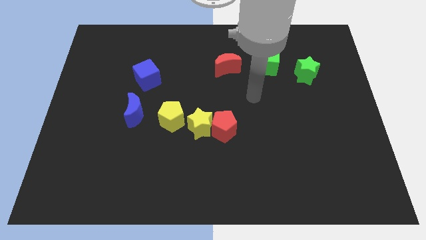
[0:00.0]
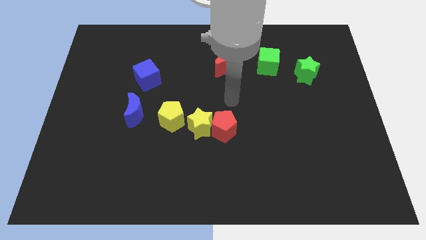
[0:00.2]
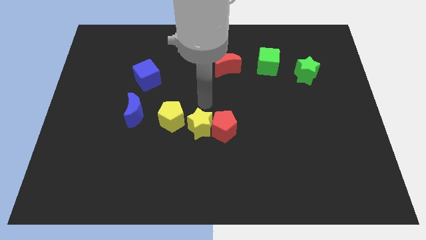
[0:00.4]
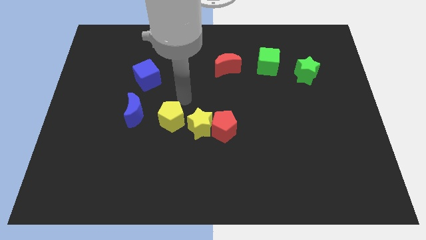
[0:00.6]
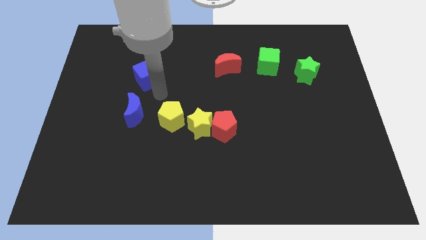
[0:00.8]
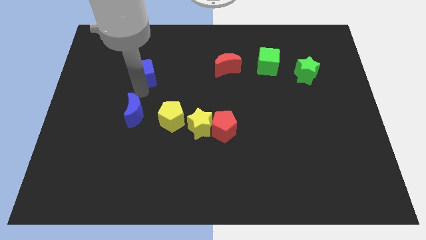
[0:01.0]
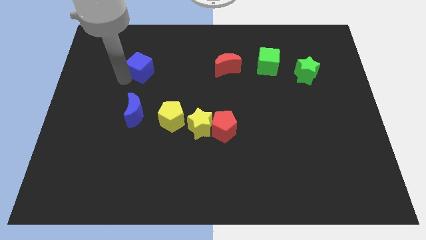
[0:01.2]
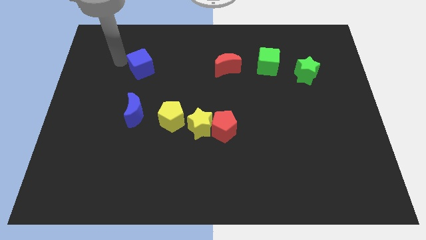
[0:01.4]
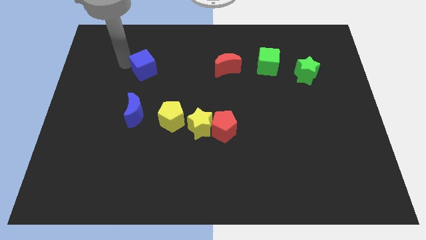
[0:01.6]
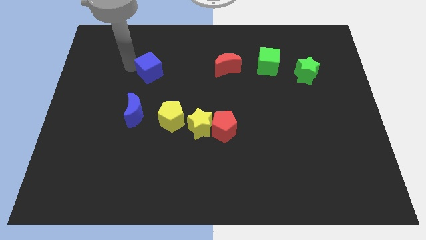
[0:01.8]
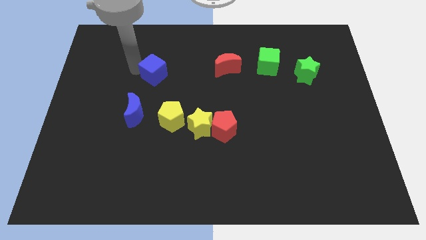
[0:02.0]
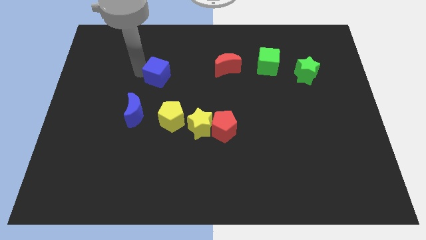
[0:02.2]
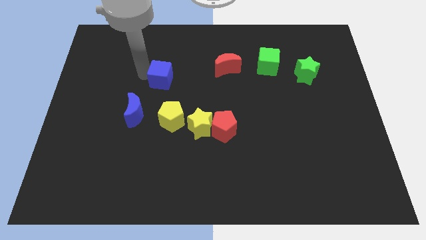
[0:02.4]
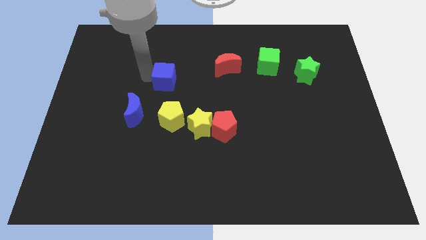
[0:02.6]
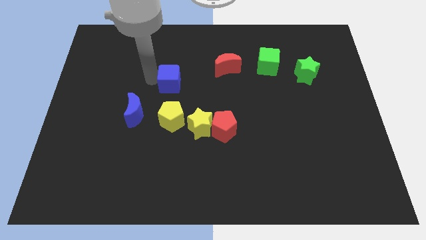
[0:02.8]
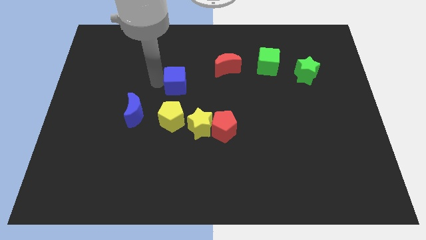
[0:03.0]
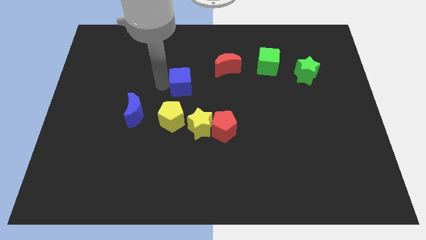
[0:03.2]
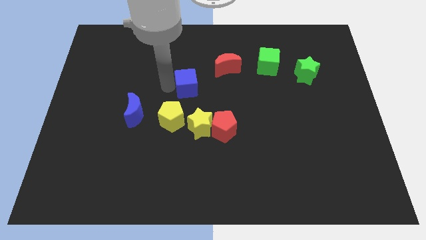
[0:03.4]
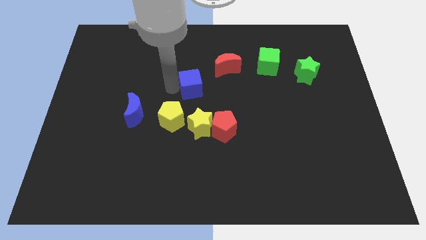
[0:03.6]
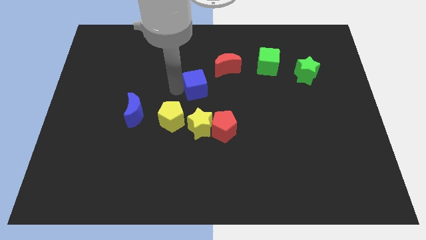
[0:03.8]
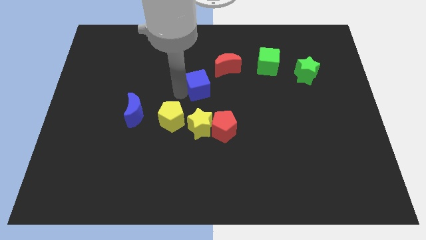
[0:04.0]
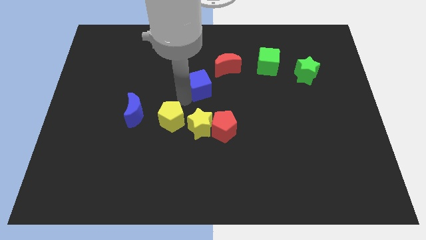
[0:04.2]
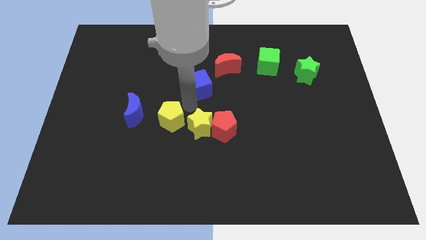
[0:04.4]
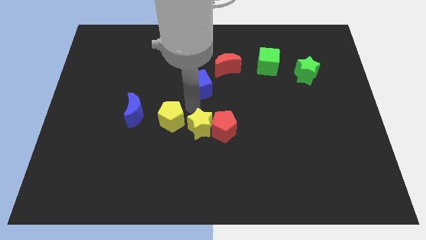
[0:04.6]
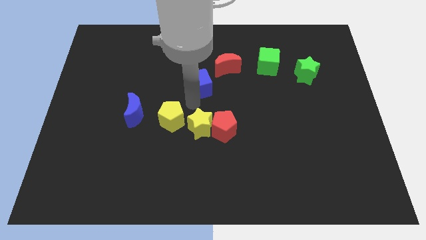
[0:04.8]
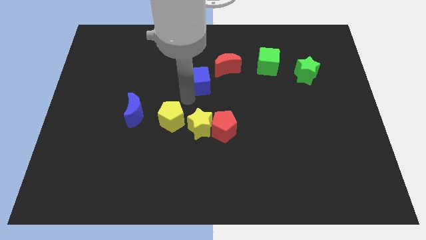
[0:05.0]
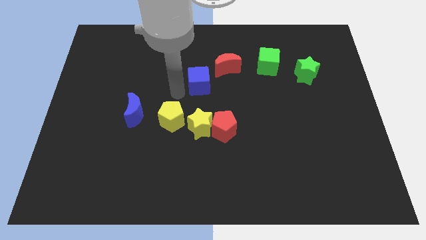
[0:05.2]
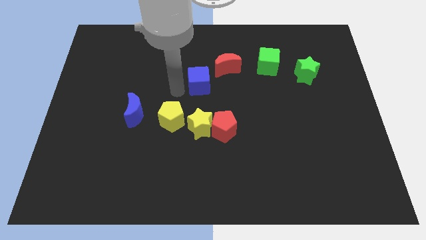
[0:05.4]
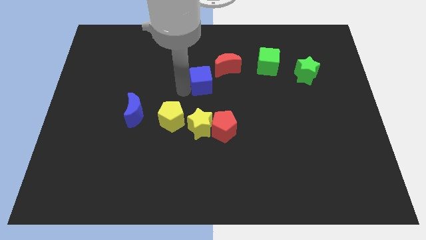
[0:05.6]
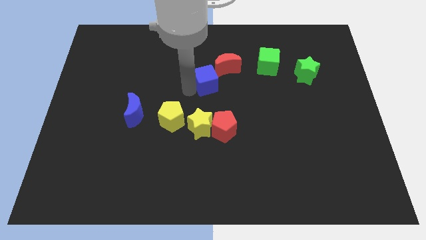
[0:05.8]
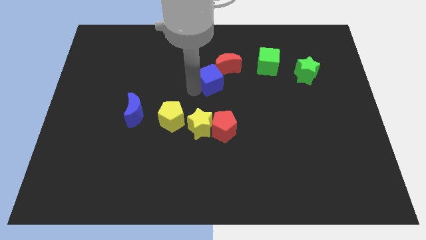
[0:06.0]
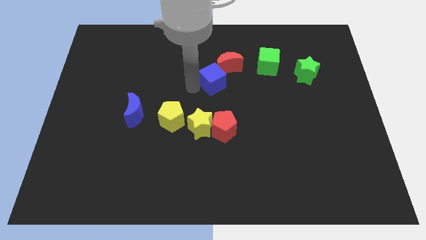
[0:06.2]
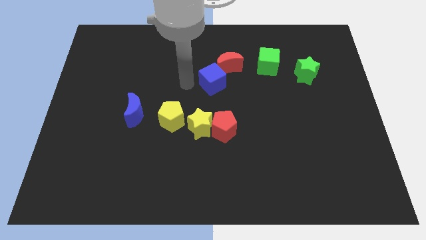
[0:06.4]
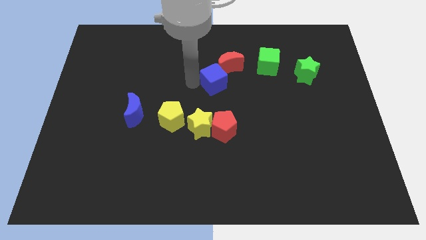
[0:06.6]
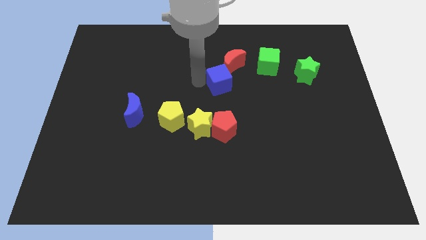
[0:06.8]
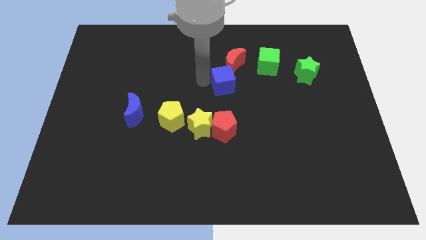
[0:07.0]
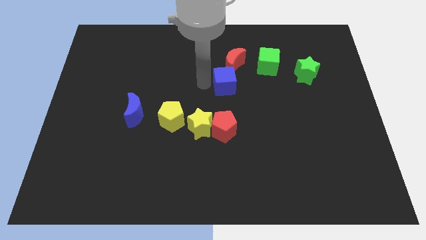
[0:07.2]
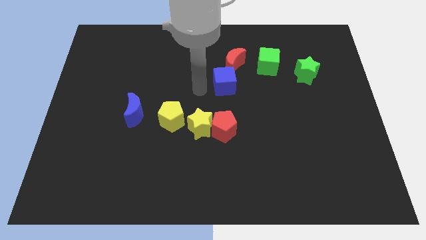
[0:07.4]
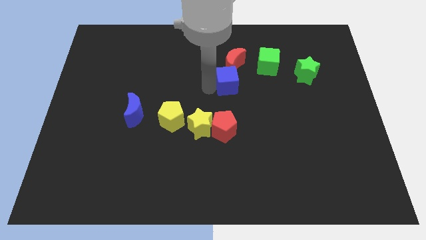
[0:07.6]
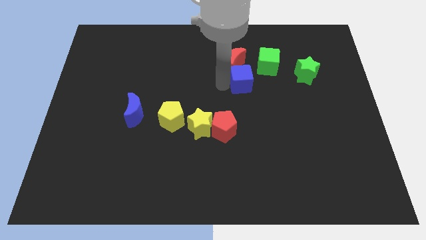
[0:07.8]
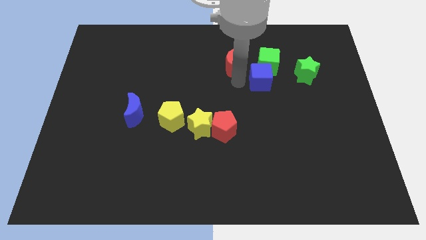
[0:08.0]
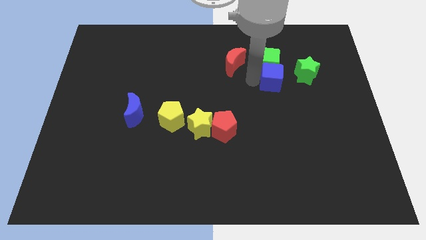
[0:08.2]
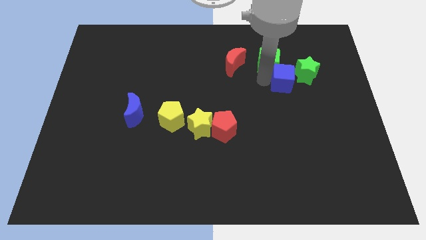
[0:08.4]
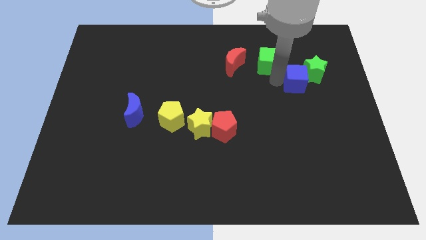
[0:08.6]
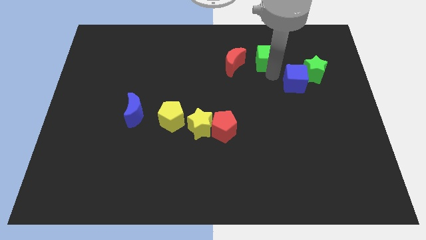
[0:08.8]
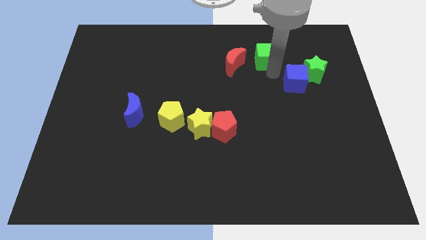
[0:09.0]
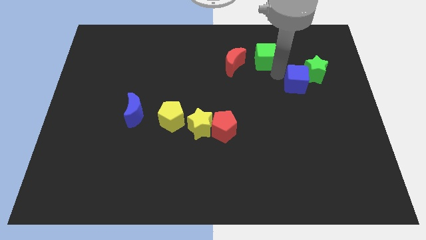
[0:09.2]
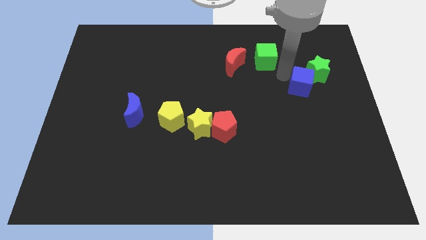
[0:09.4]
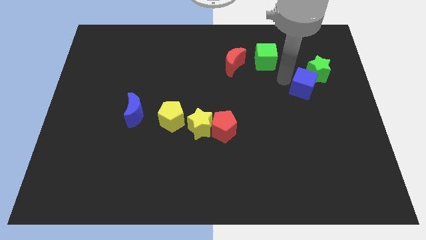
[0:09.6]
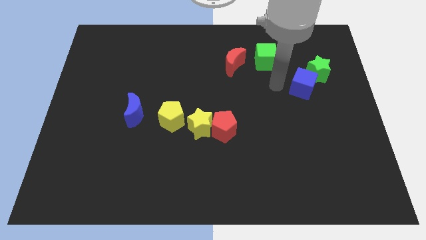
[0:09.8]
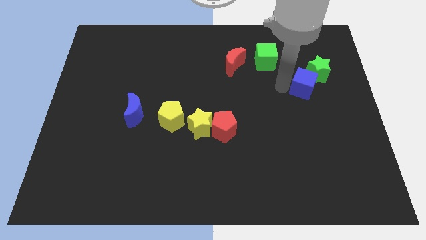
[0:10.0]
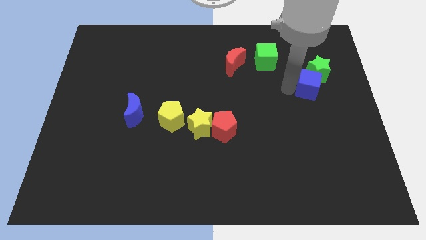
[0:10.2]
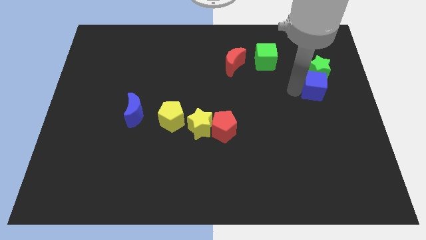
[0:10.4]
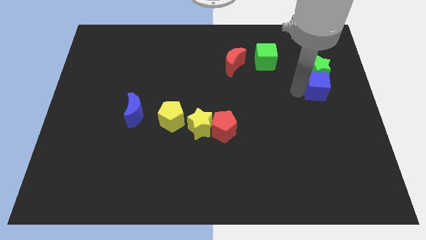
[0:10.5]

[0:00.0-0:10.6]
slide the blue cube to the center right

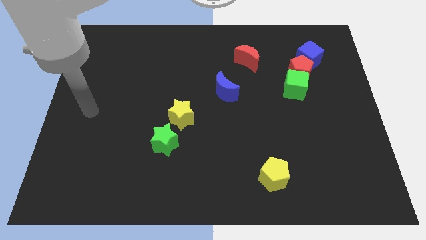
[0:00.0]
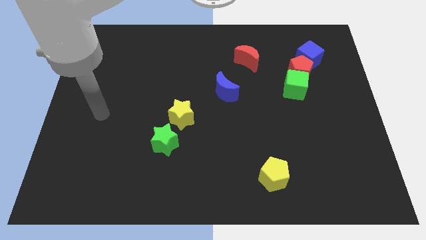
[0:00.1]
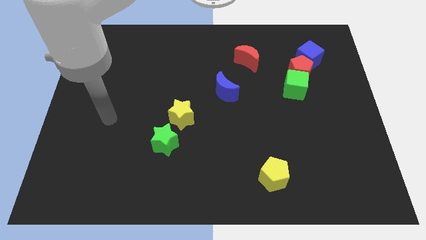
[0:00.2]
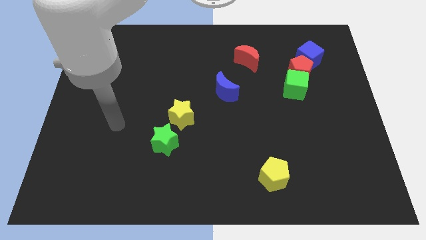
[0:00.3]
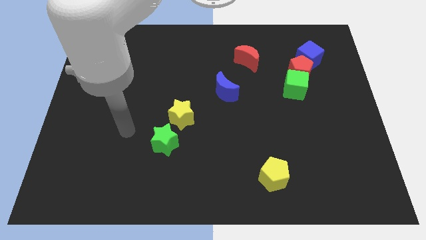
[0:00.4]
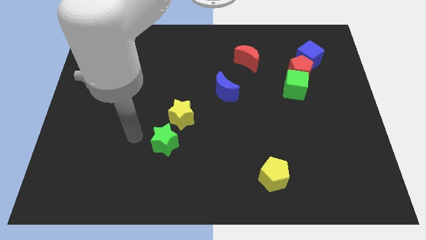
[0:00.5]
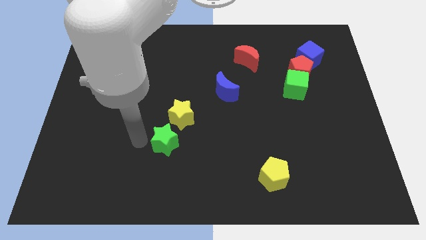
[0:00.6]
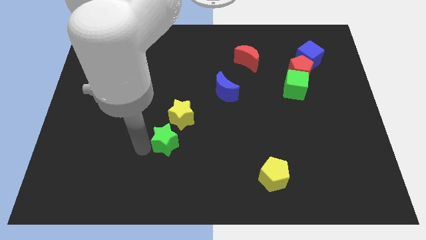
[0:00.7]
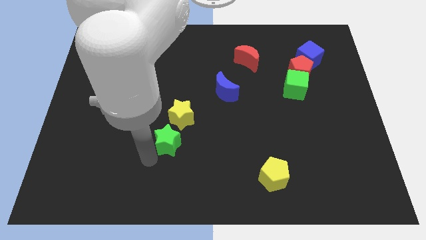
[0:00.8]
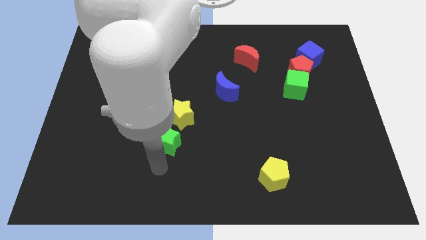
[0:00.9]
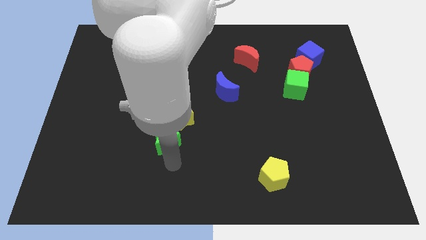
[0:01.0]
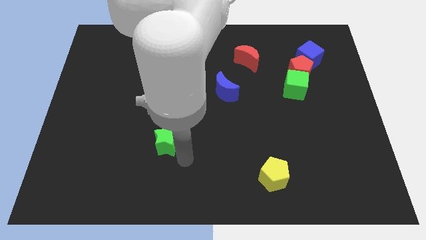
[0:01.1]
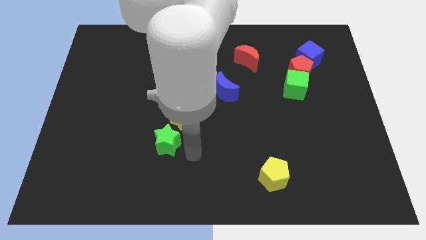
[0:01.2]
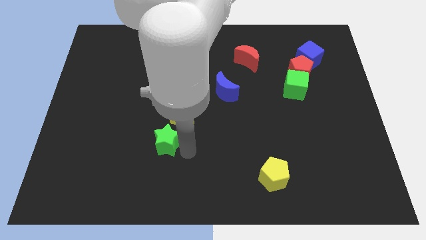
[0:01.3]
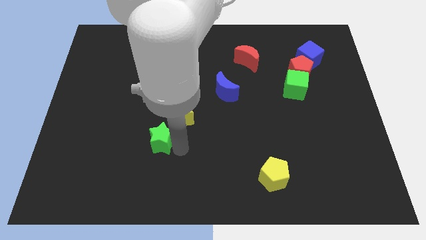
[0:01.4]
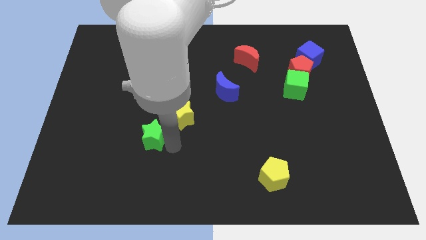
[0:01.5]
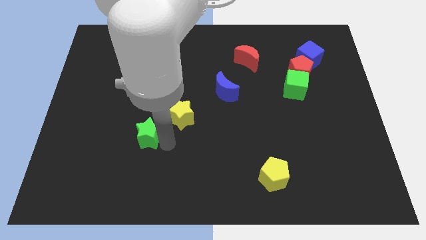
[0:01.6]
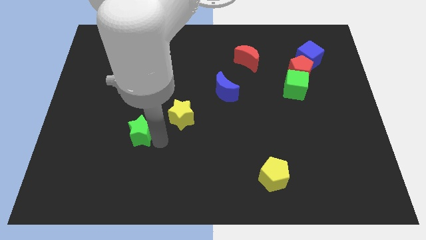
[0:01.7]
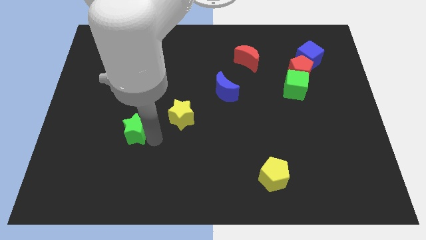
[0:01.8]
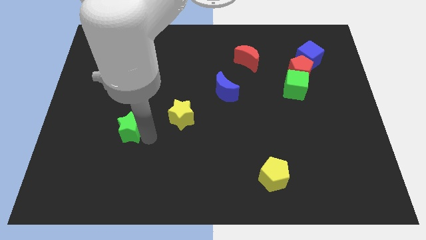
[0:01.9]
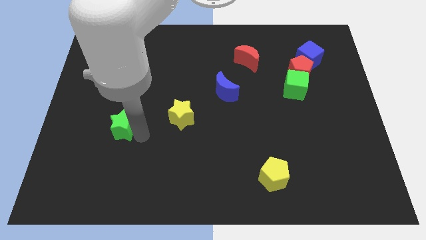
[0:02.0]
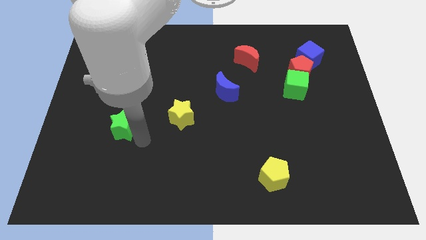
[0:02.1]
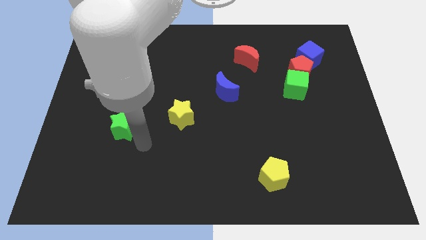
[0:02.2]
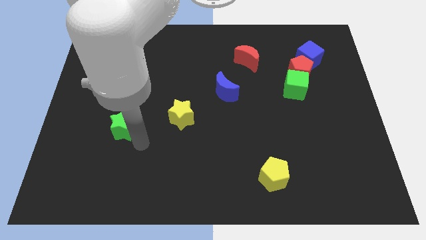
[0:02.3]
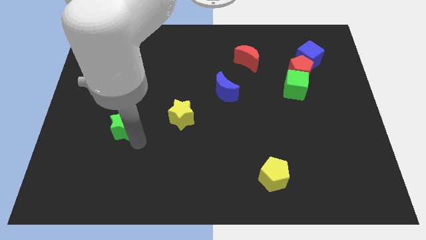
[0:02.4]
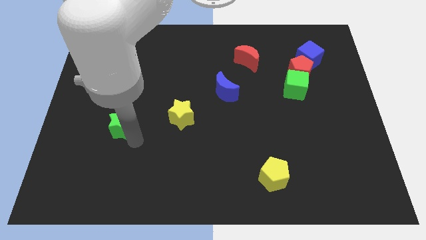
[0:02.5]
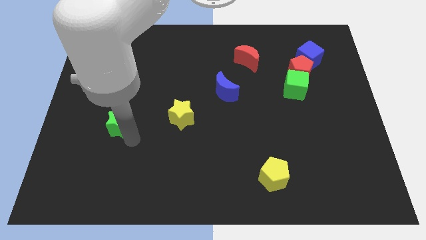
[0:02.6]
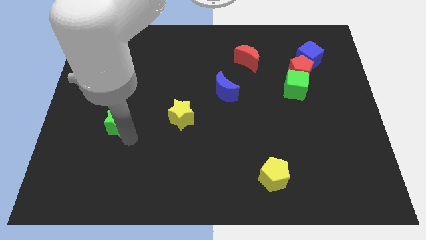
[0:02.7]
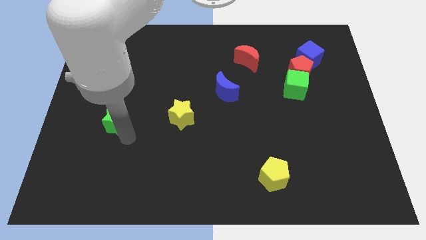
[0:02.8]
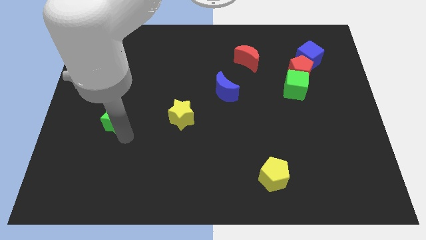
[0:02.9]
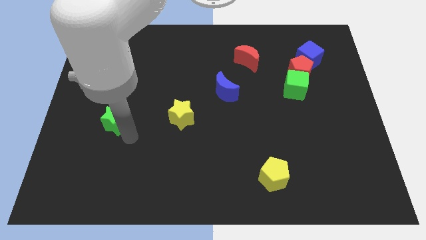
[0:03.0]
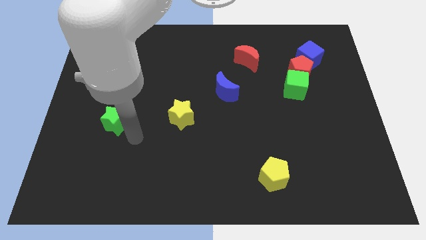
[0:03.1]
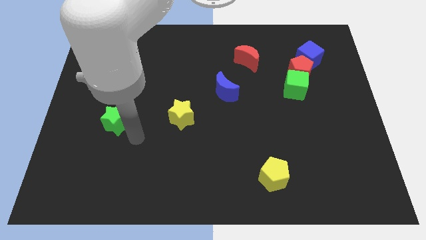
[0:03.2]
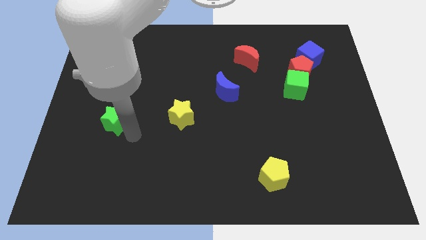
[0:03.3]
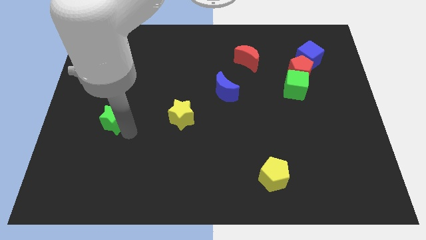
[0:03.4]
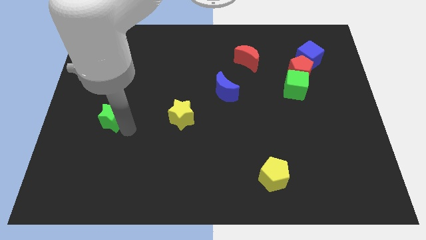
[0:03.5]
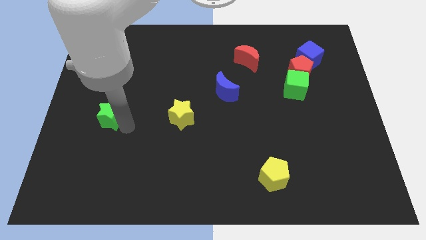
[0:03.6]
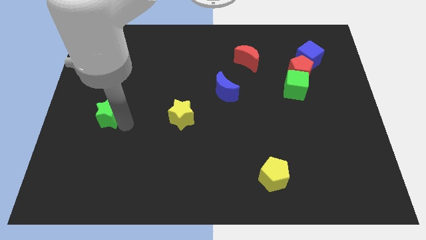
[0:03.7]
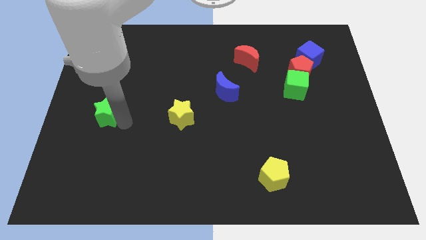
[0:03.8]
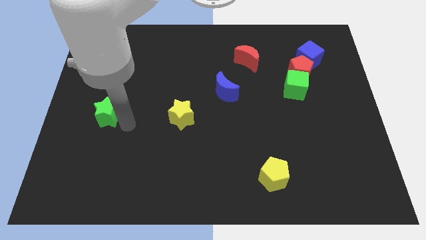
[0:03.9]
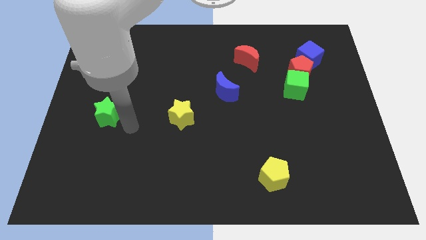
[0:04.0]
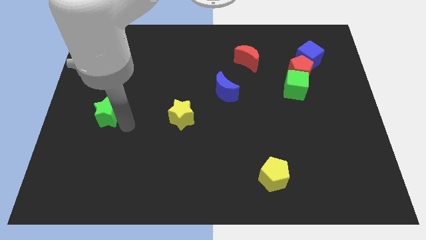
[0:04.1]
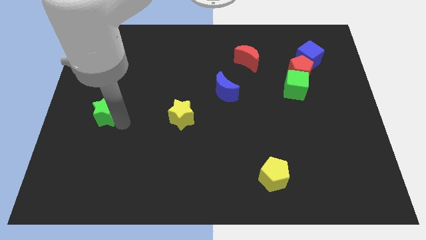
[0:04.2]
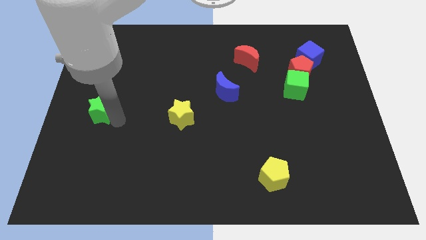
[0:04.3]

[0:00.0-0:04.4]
push the green star to the left side
